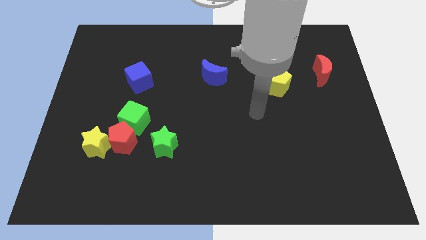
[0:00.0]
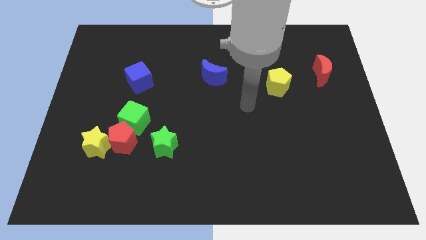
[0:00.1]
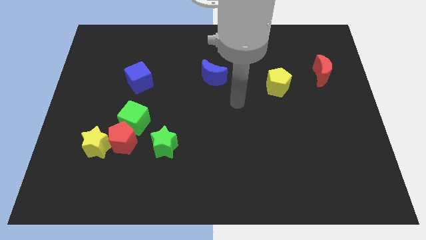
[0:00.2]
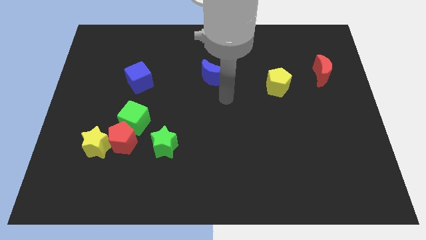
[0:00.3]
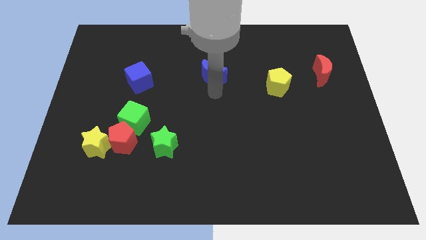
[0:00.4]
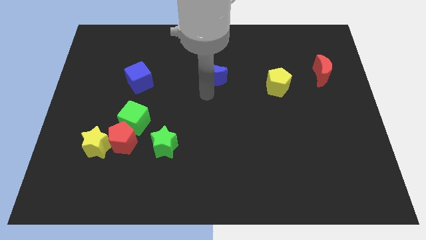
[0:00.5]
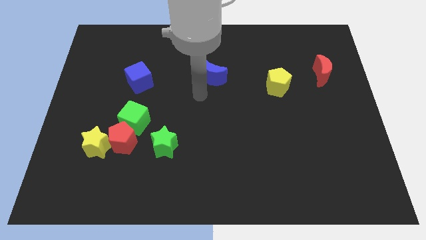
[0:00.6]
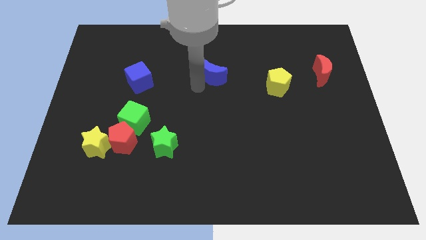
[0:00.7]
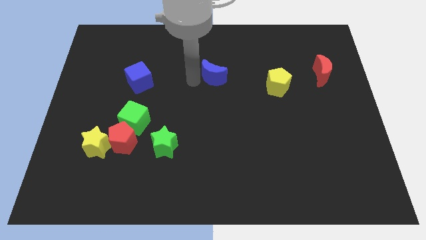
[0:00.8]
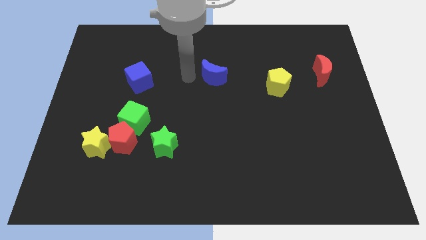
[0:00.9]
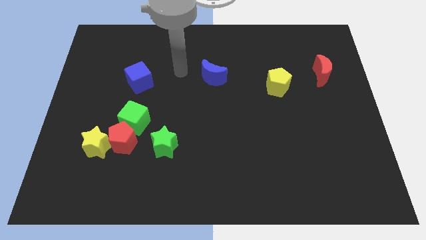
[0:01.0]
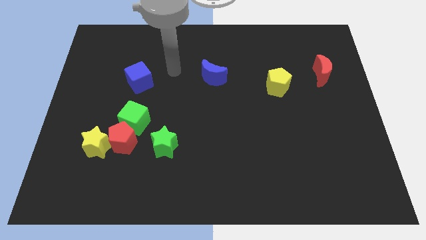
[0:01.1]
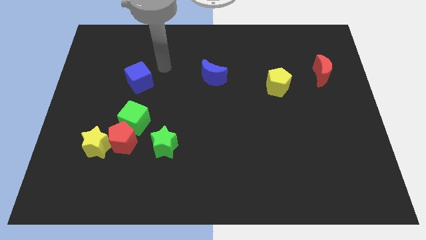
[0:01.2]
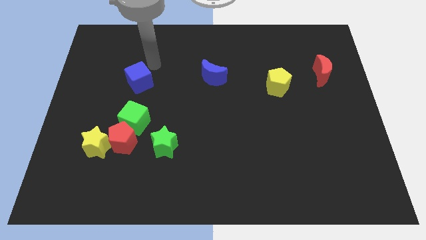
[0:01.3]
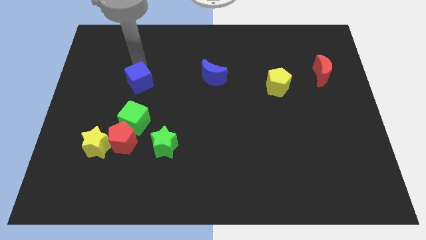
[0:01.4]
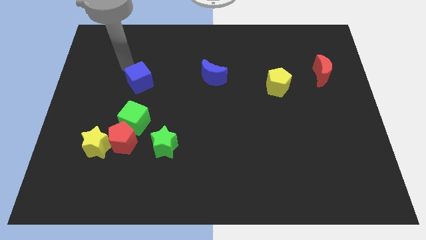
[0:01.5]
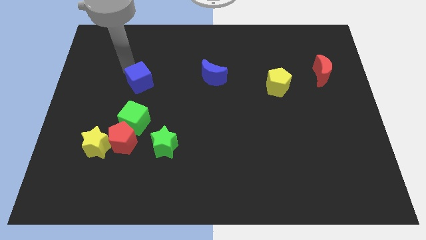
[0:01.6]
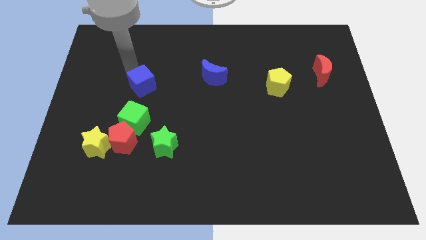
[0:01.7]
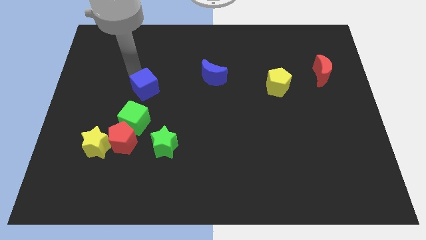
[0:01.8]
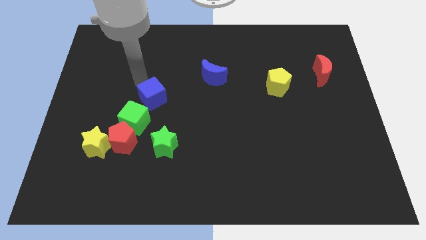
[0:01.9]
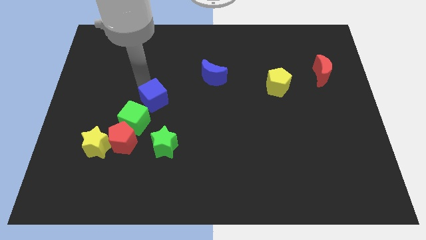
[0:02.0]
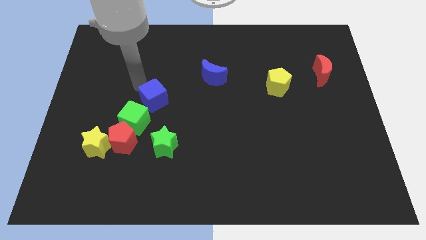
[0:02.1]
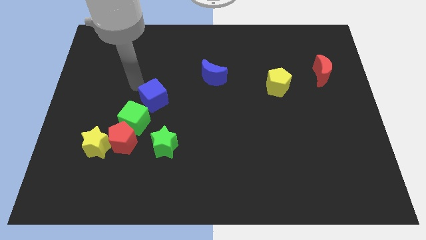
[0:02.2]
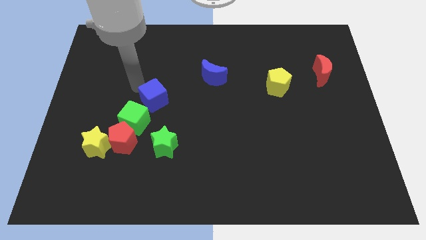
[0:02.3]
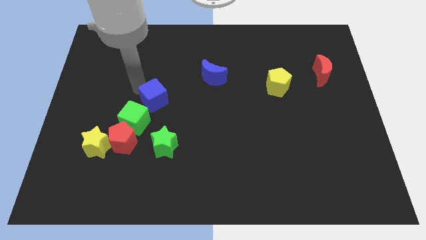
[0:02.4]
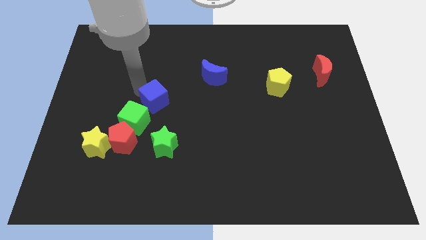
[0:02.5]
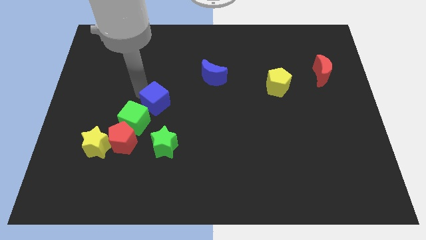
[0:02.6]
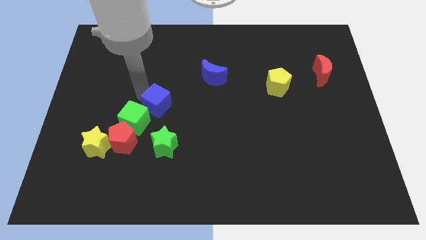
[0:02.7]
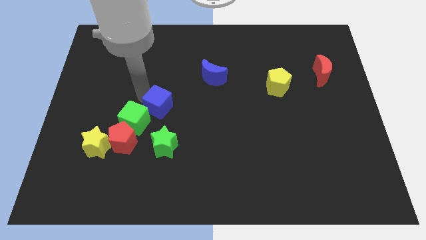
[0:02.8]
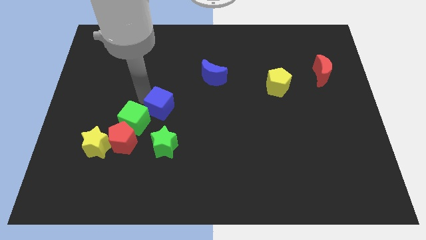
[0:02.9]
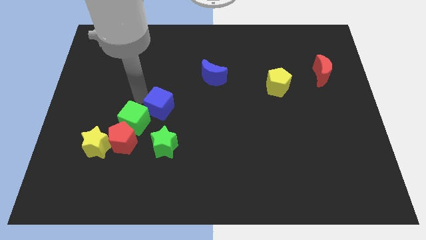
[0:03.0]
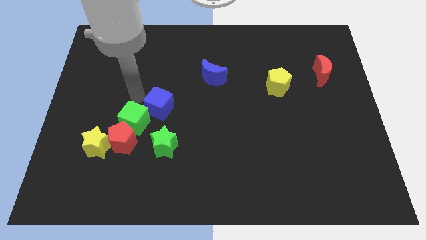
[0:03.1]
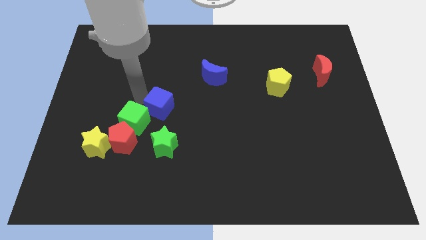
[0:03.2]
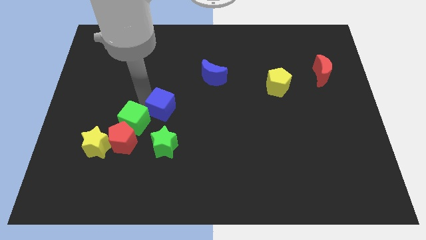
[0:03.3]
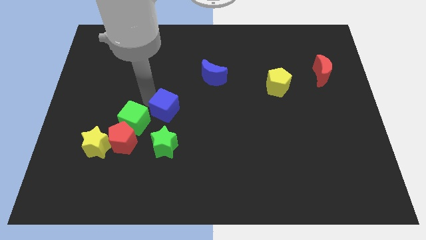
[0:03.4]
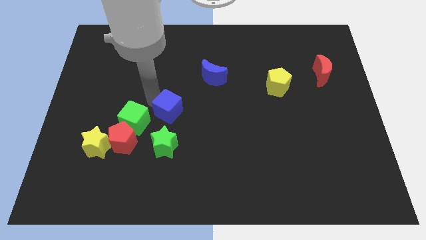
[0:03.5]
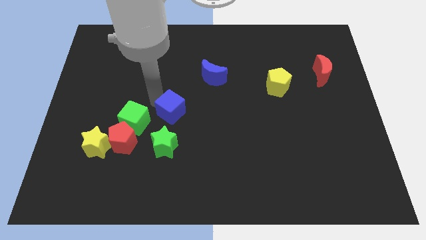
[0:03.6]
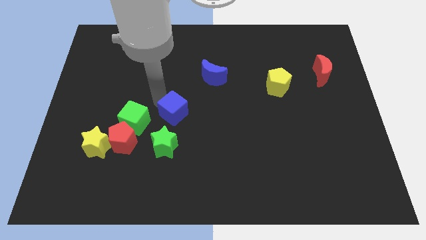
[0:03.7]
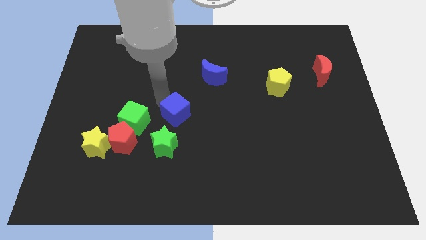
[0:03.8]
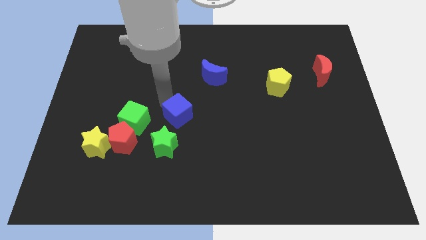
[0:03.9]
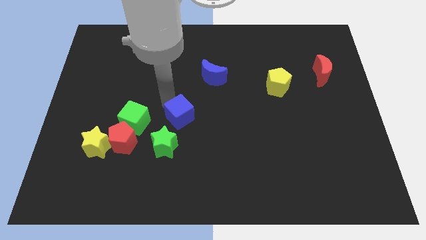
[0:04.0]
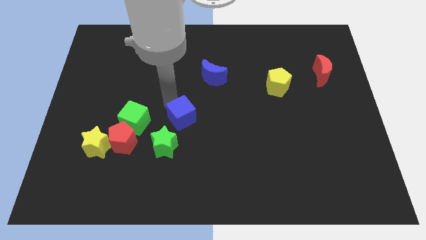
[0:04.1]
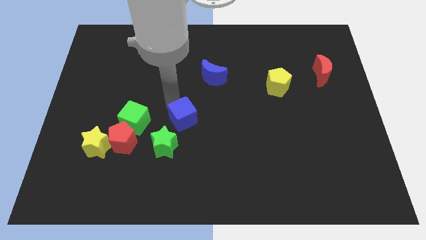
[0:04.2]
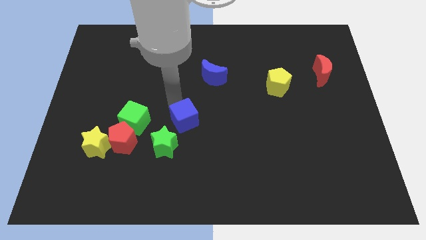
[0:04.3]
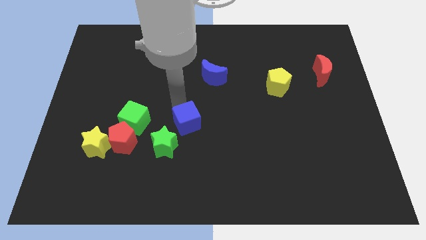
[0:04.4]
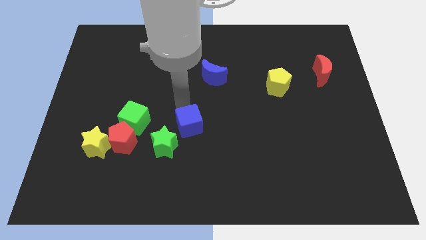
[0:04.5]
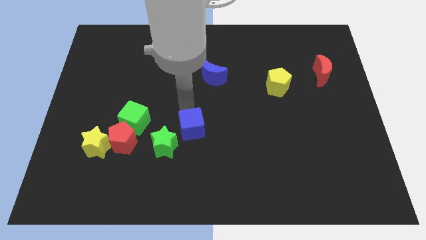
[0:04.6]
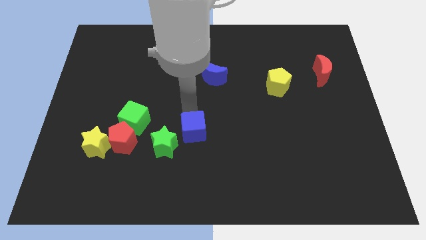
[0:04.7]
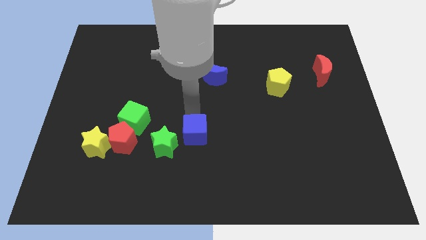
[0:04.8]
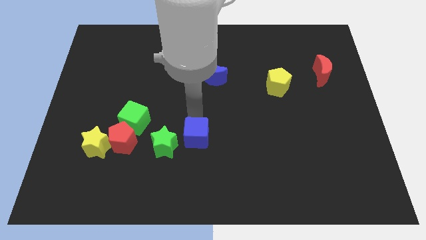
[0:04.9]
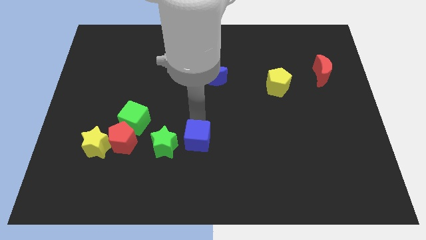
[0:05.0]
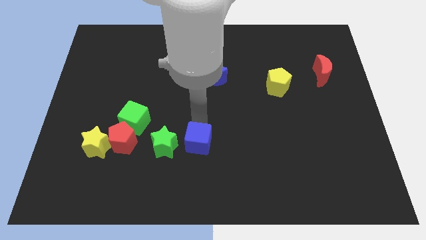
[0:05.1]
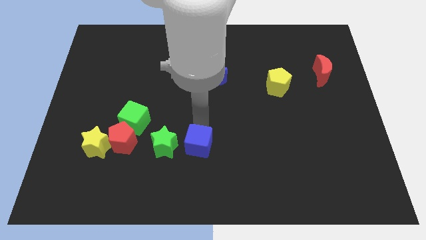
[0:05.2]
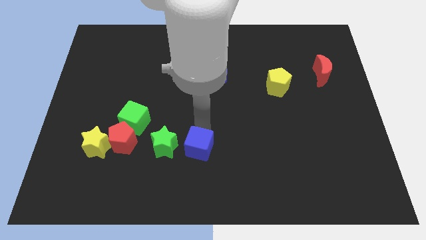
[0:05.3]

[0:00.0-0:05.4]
put the blue cube diagonally down and to the right of the green star

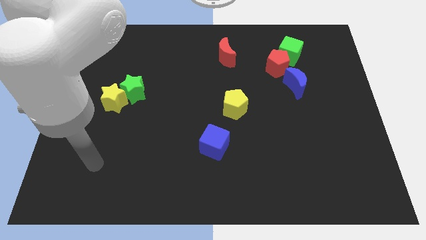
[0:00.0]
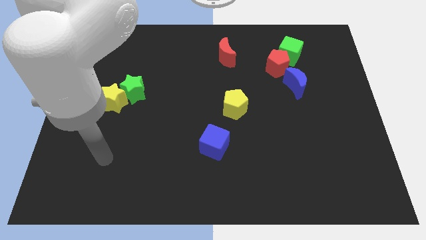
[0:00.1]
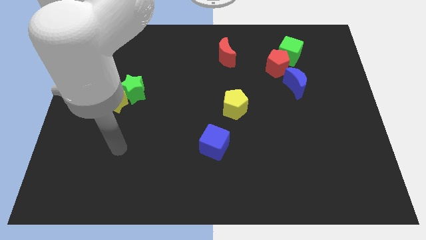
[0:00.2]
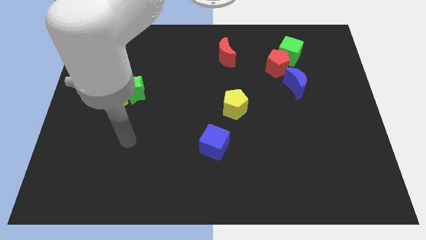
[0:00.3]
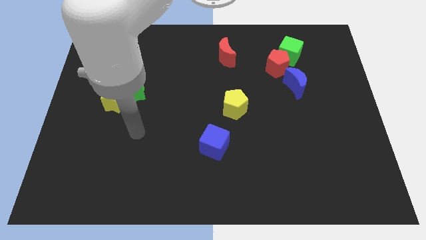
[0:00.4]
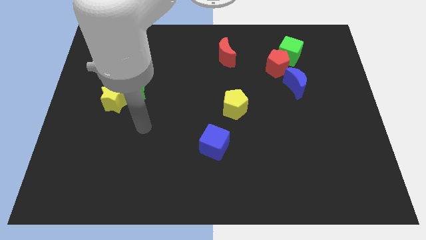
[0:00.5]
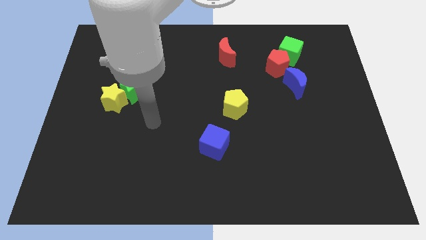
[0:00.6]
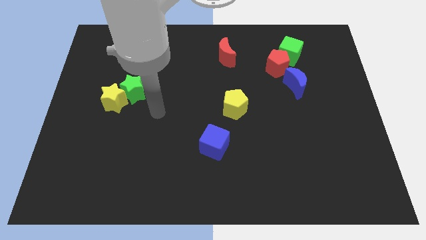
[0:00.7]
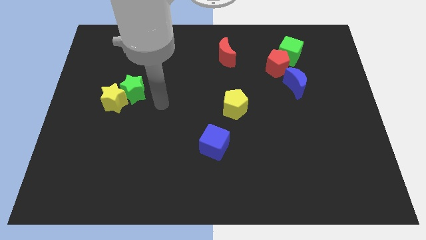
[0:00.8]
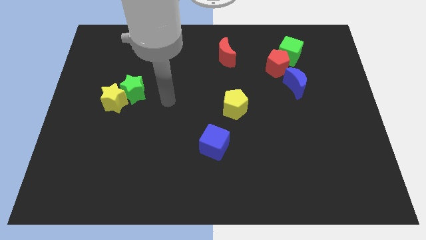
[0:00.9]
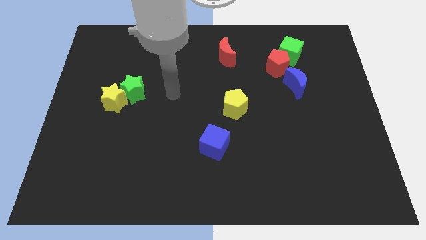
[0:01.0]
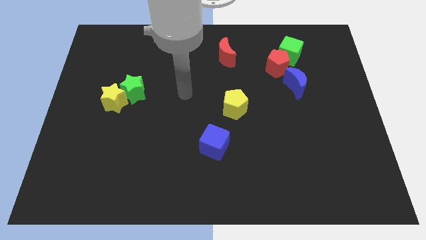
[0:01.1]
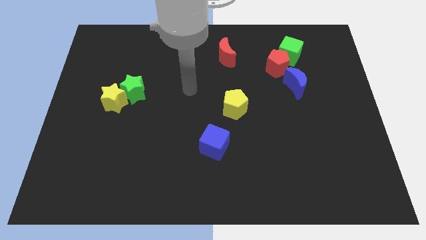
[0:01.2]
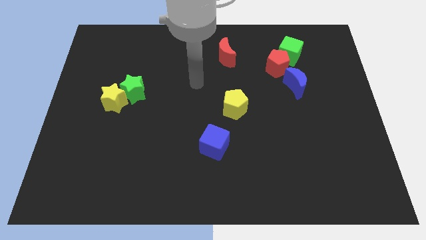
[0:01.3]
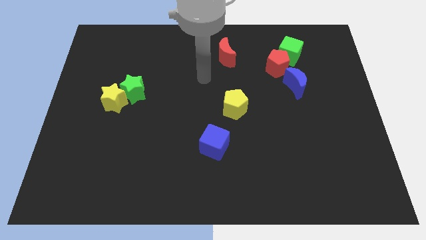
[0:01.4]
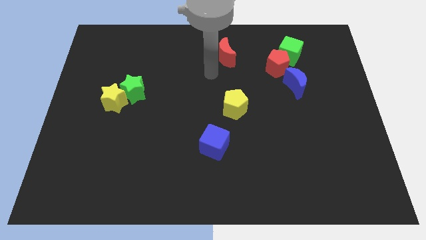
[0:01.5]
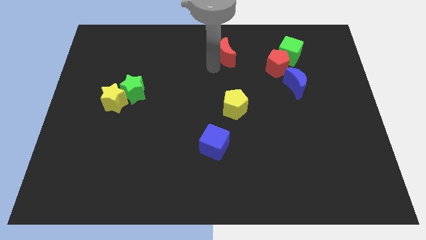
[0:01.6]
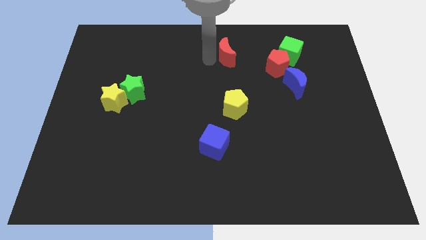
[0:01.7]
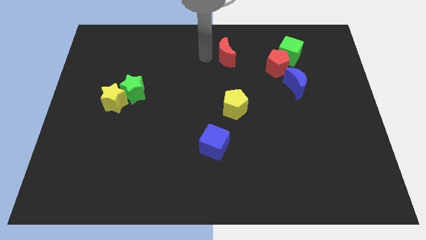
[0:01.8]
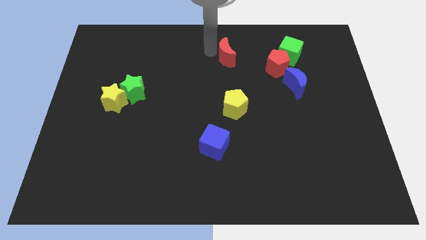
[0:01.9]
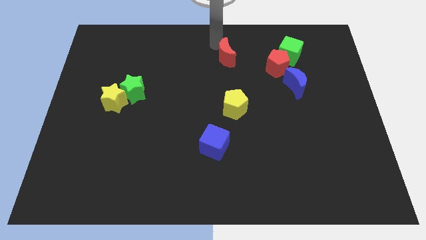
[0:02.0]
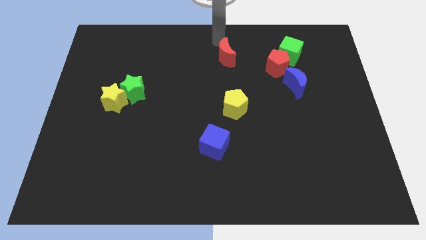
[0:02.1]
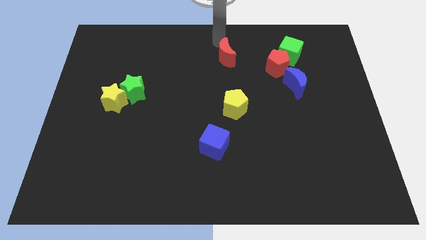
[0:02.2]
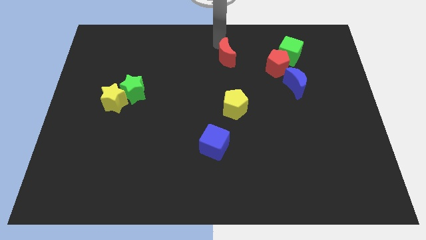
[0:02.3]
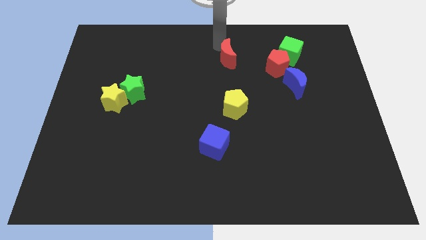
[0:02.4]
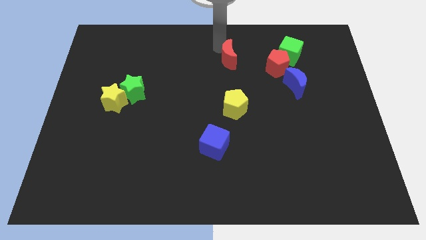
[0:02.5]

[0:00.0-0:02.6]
slide the red moon to the top of the yellow pentagon
